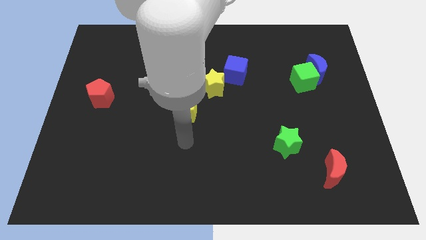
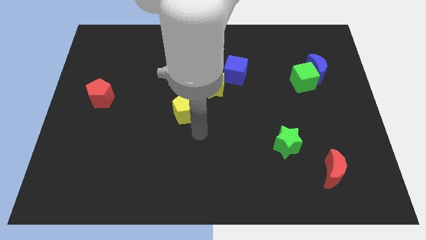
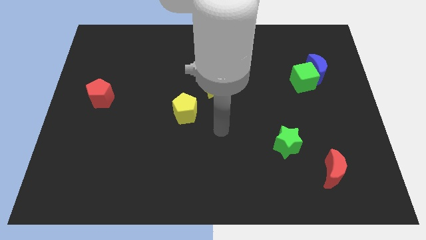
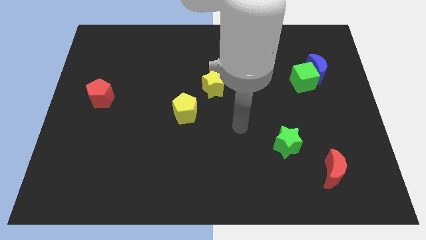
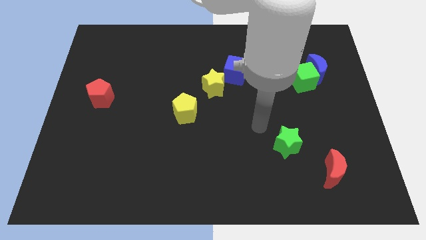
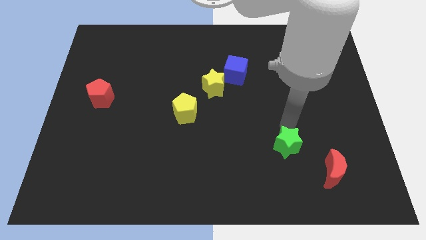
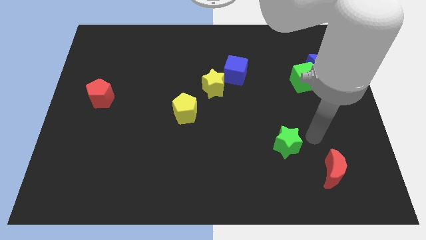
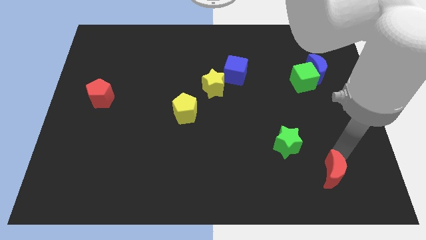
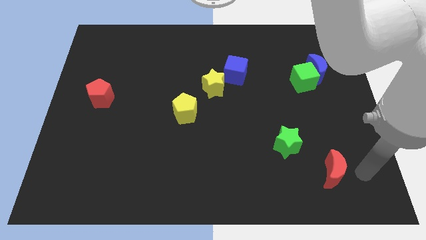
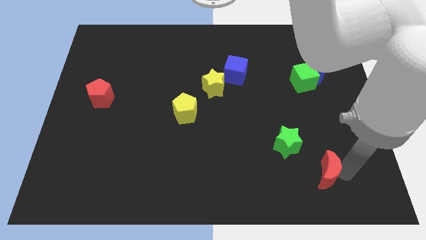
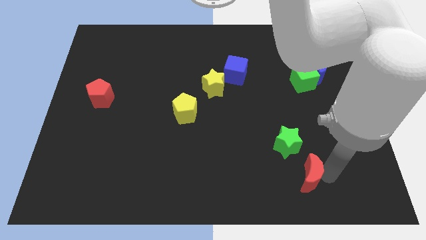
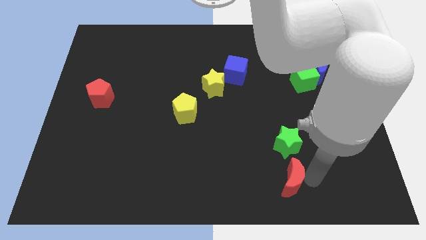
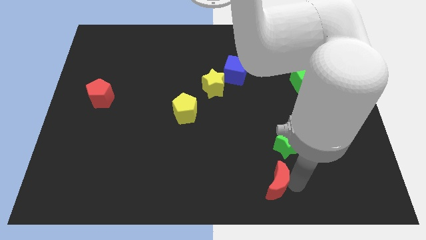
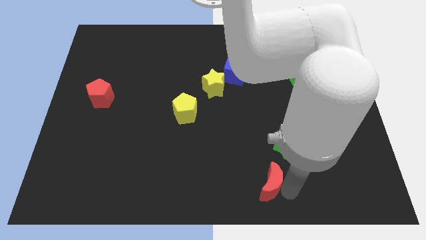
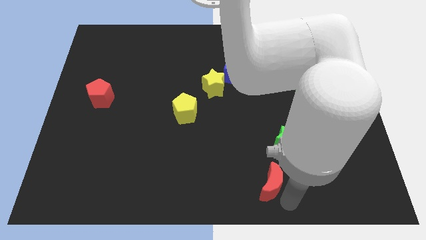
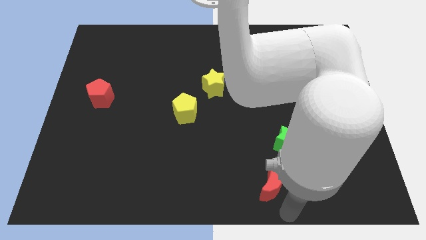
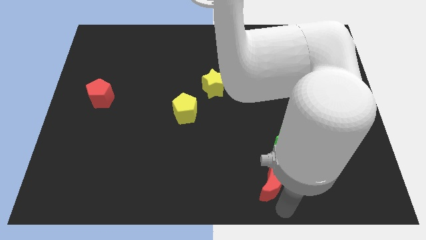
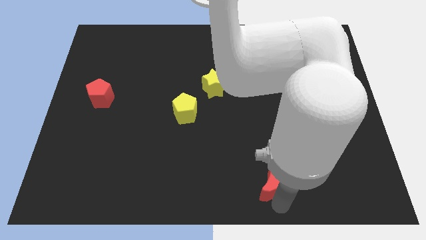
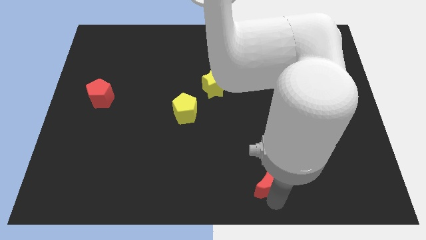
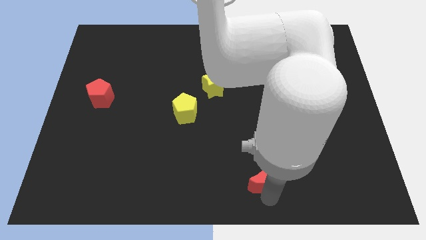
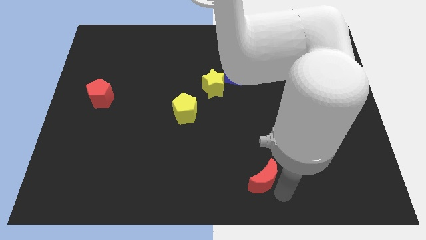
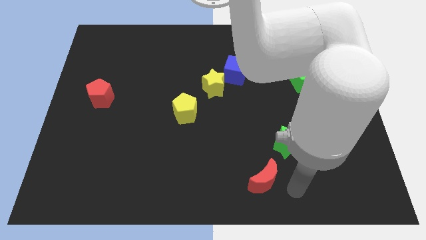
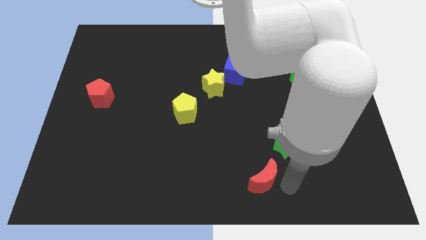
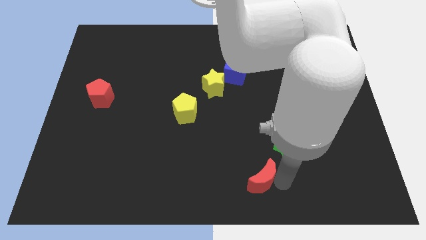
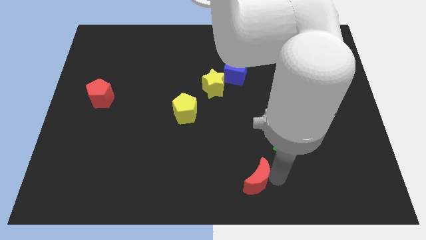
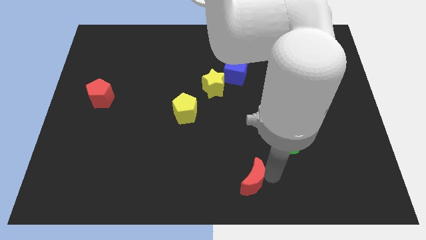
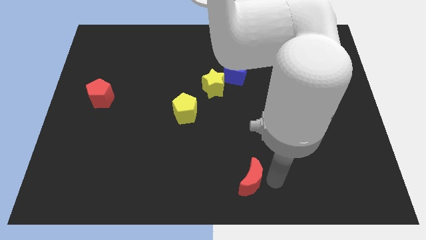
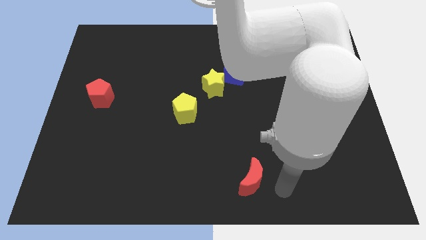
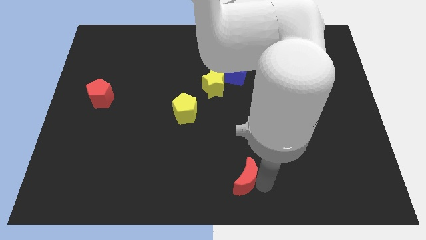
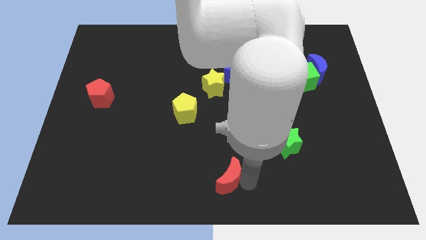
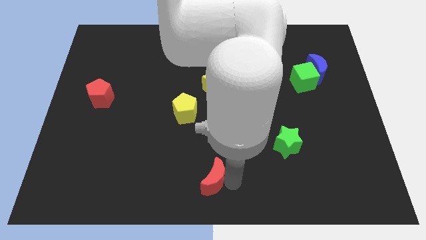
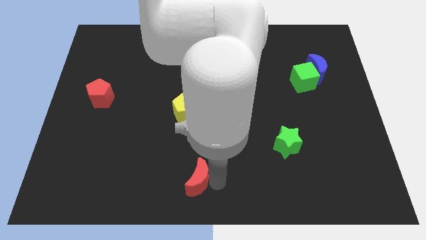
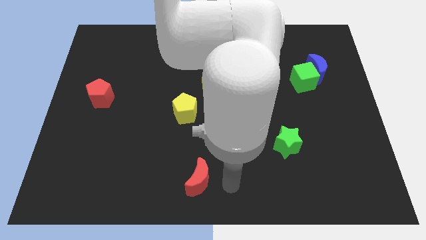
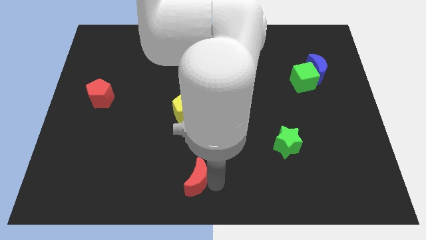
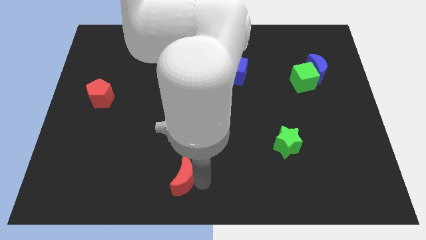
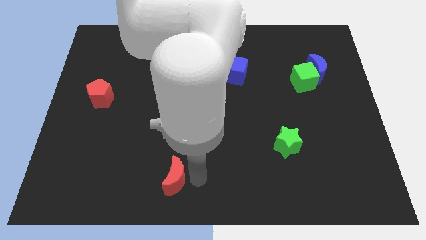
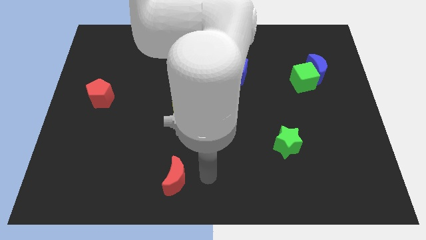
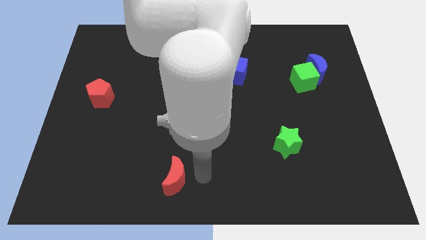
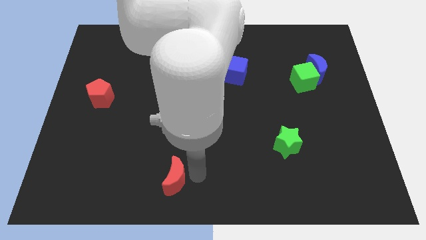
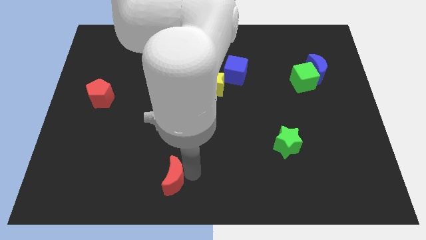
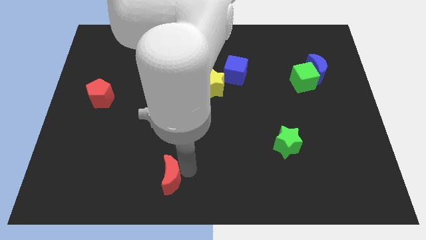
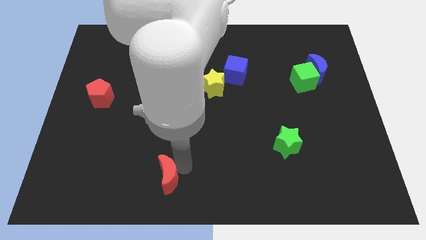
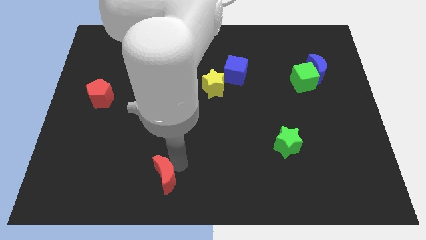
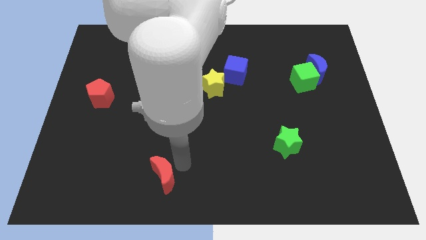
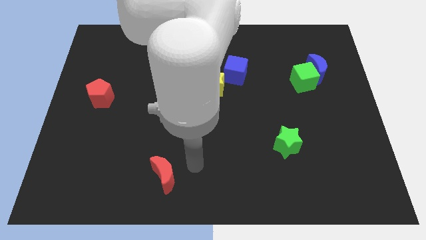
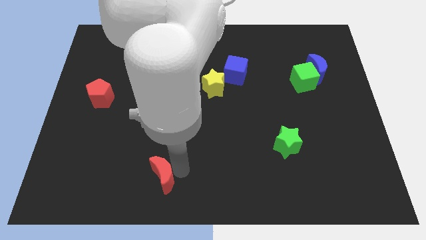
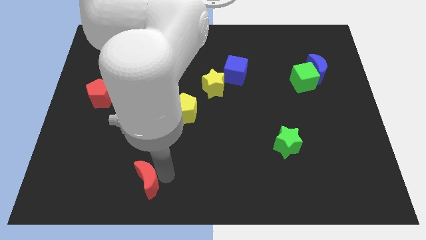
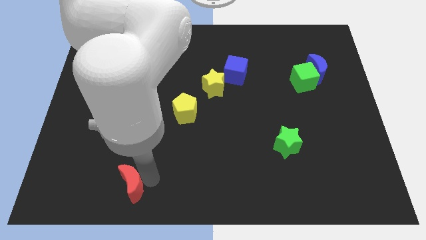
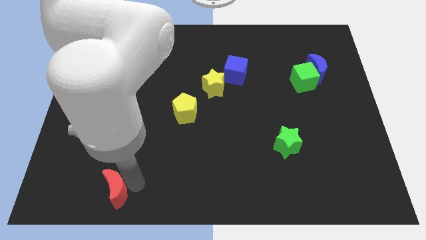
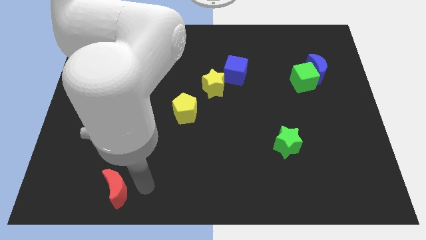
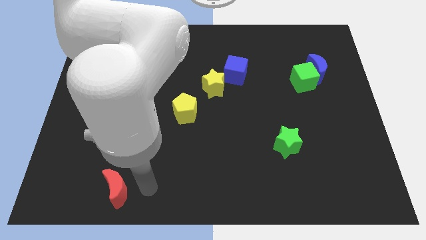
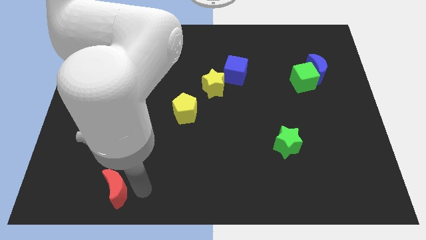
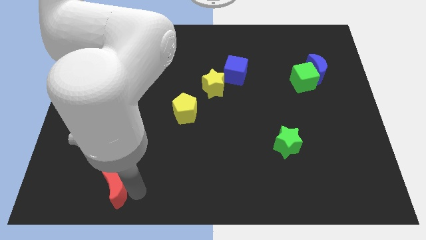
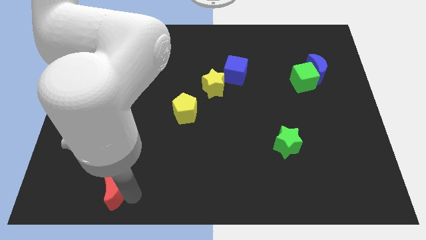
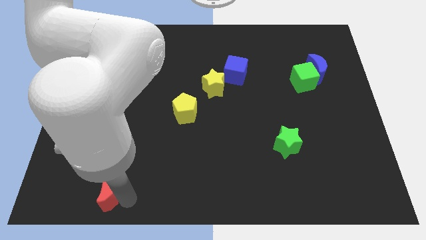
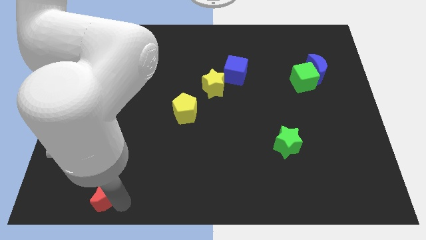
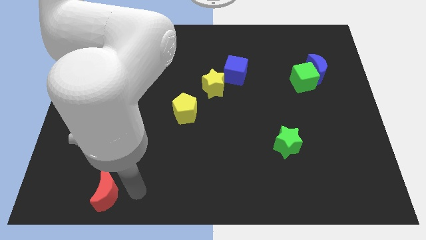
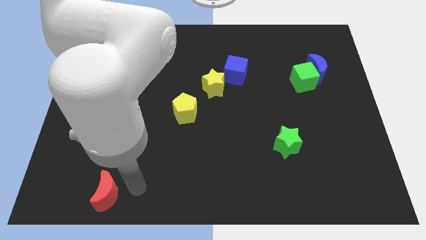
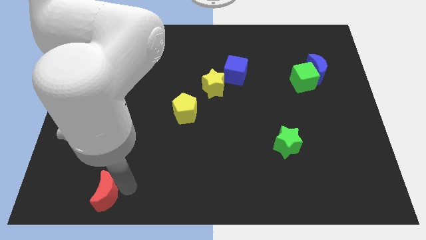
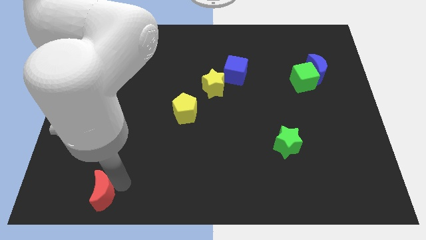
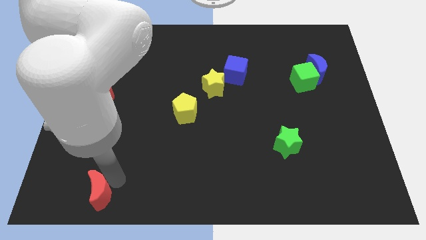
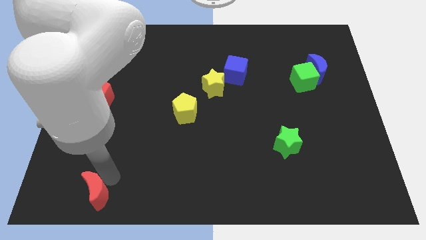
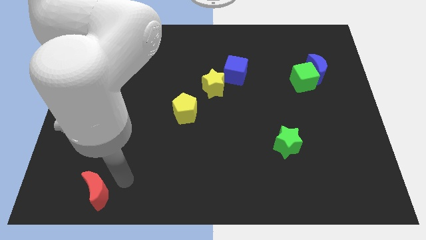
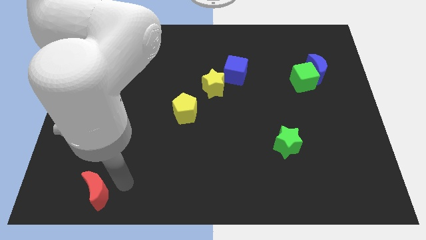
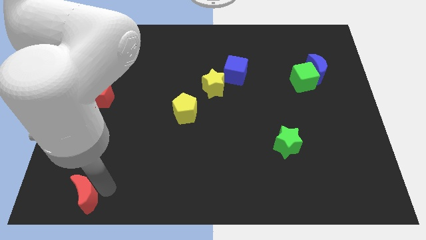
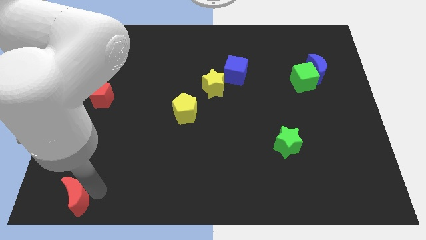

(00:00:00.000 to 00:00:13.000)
push the red moon to the bottom left corner
